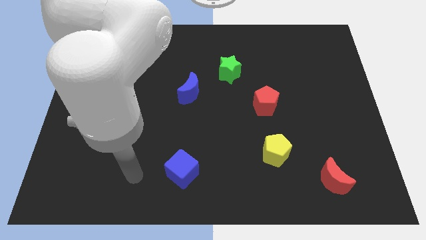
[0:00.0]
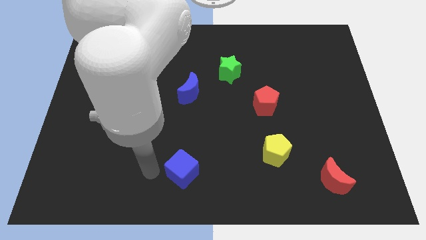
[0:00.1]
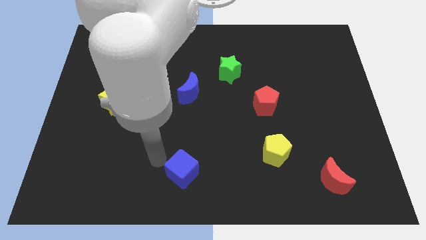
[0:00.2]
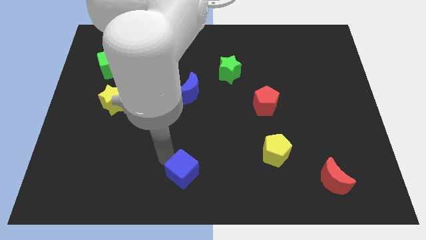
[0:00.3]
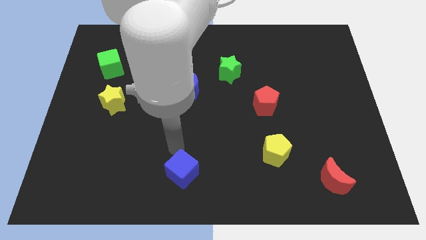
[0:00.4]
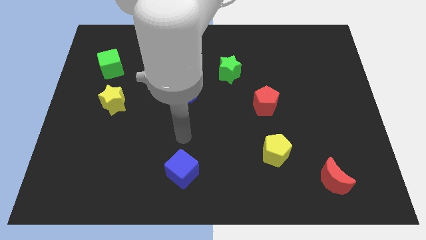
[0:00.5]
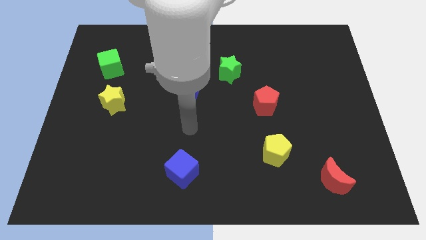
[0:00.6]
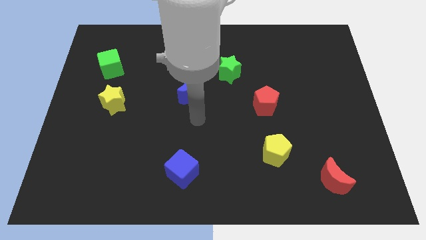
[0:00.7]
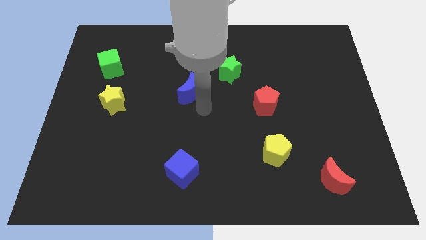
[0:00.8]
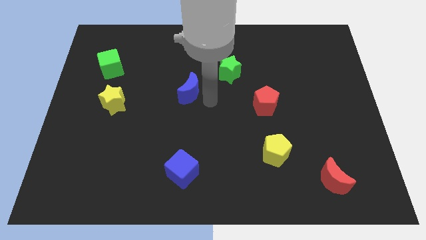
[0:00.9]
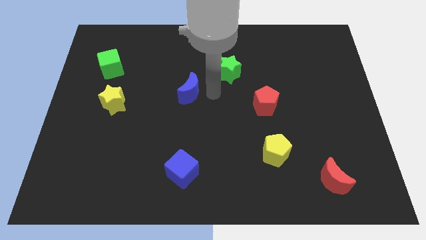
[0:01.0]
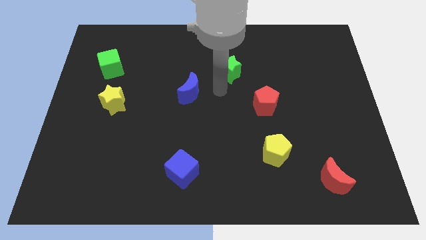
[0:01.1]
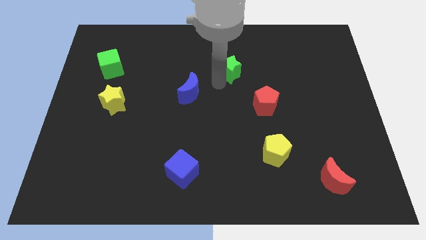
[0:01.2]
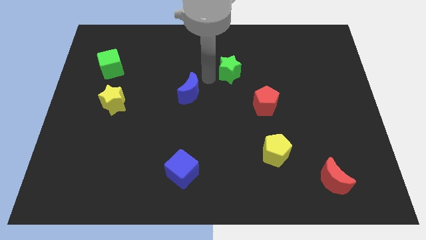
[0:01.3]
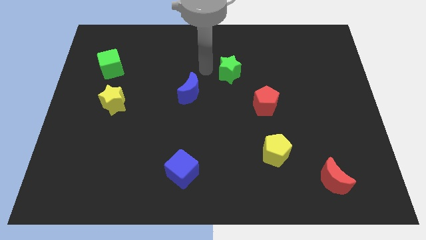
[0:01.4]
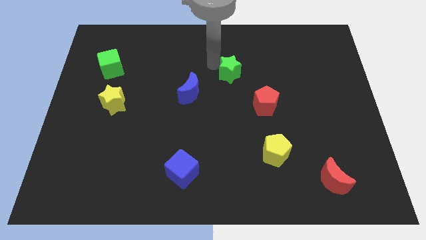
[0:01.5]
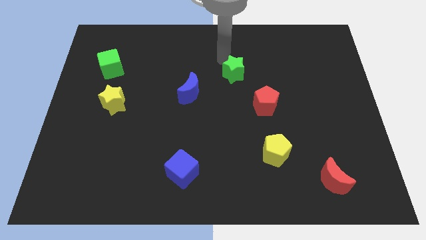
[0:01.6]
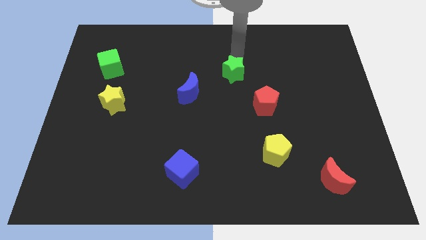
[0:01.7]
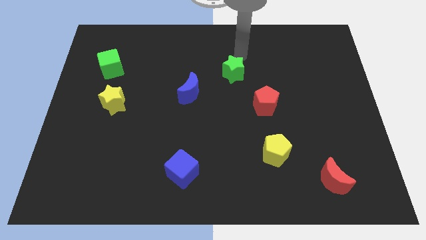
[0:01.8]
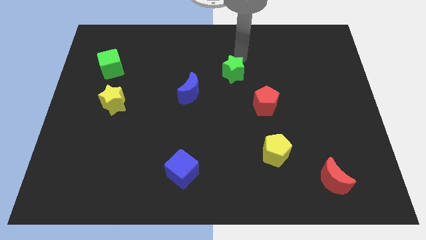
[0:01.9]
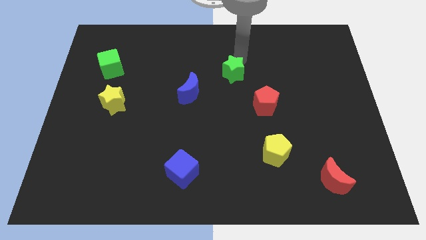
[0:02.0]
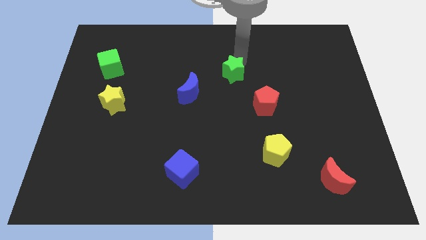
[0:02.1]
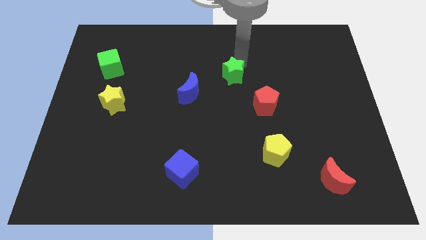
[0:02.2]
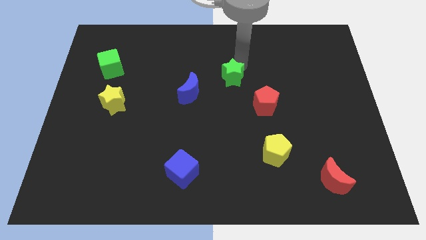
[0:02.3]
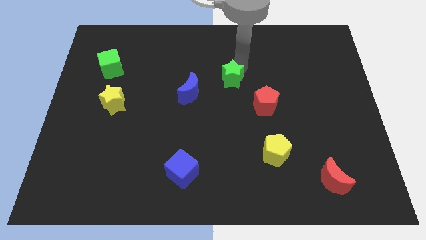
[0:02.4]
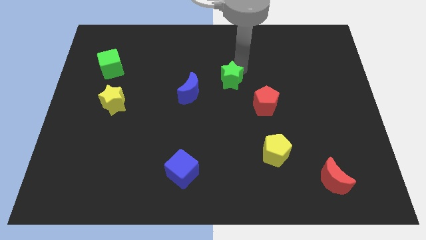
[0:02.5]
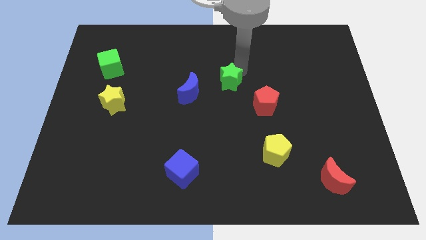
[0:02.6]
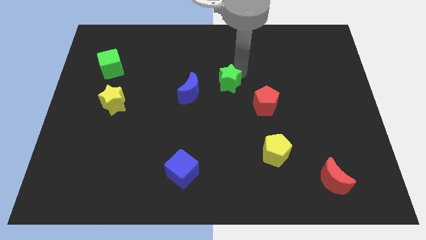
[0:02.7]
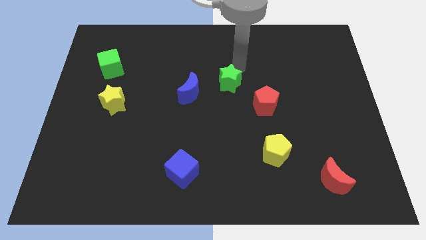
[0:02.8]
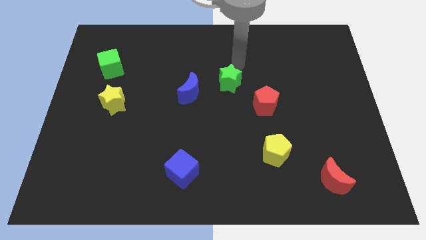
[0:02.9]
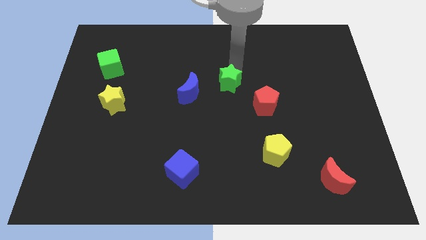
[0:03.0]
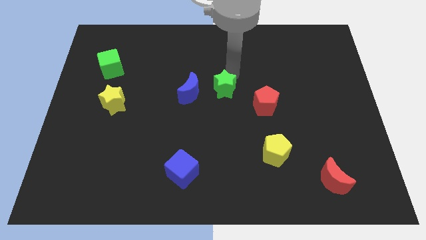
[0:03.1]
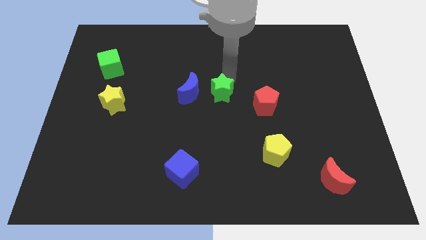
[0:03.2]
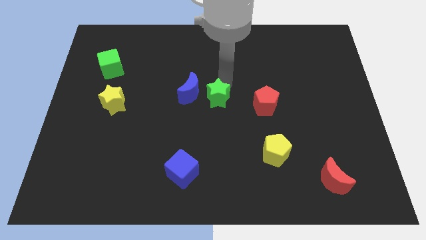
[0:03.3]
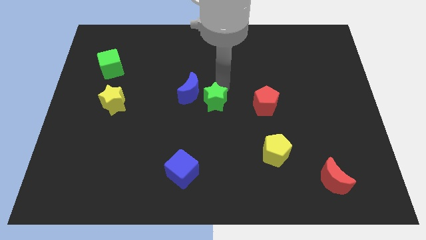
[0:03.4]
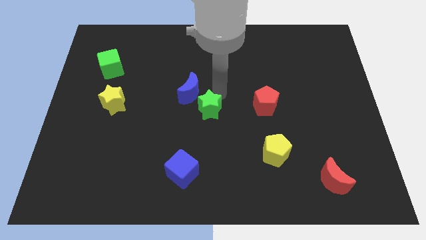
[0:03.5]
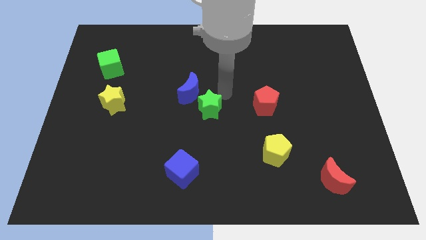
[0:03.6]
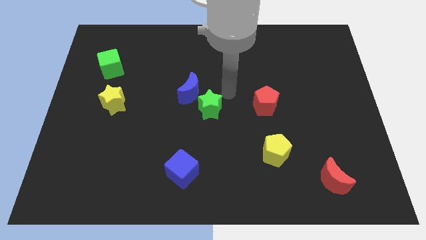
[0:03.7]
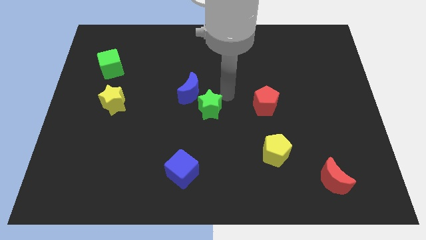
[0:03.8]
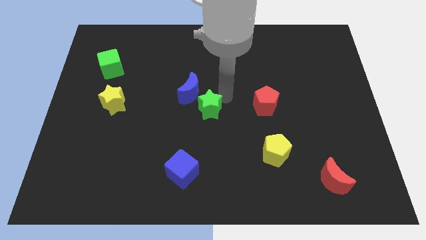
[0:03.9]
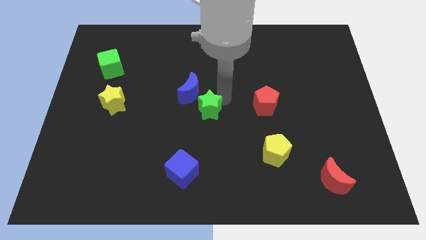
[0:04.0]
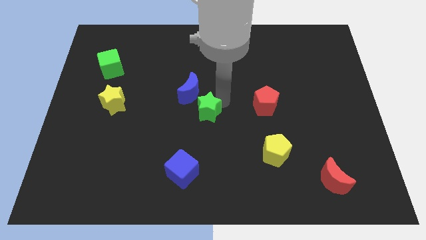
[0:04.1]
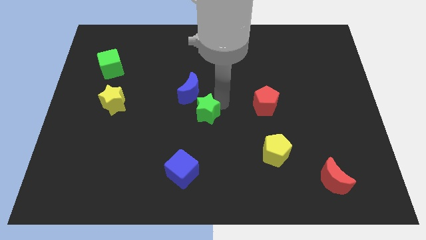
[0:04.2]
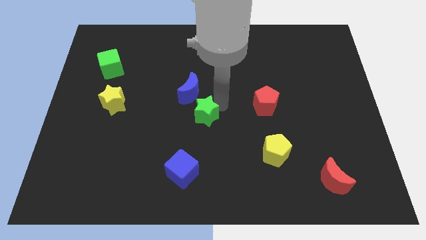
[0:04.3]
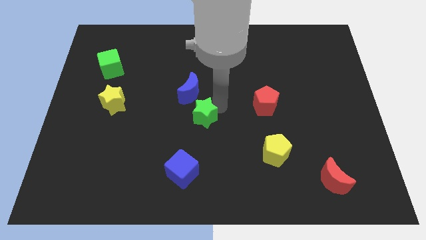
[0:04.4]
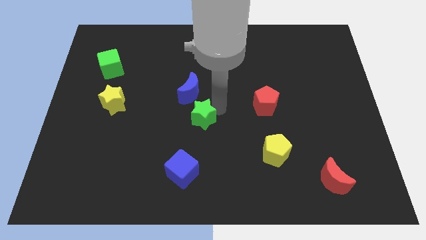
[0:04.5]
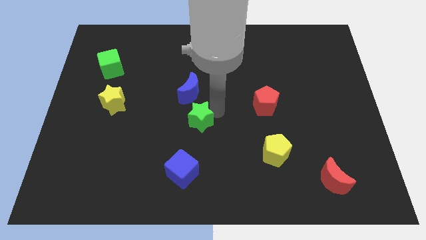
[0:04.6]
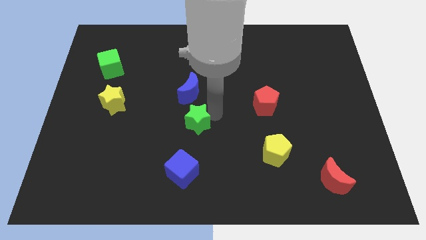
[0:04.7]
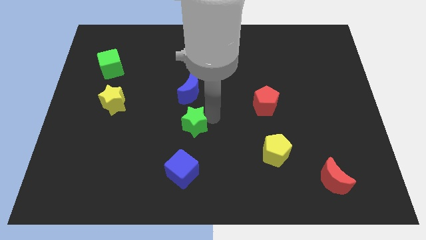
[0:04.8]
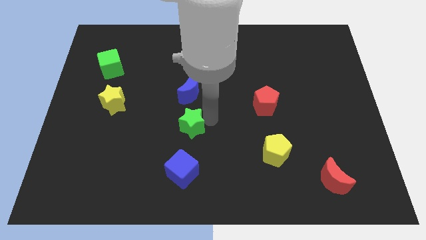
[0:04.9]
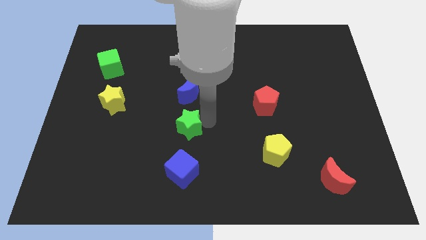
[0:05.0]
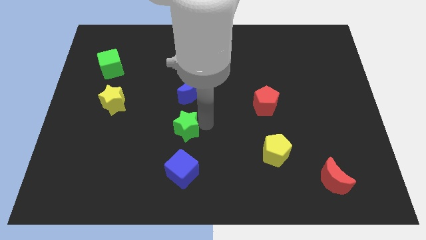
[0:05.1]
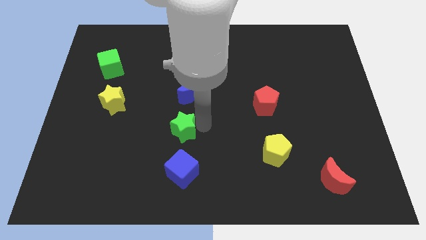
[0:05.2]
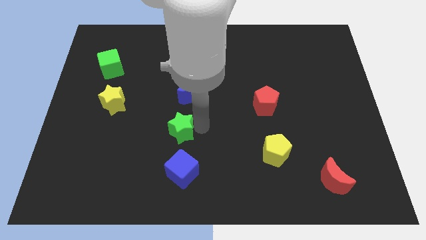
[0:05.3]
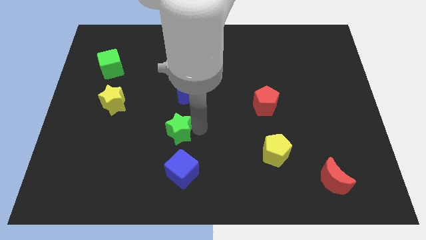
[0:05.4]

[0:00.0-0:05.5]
push the green star downwards and then to the left

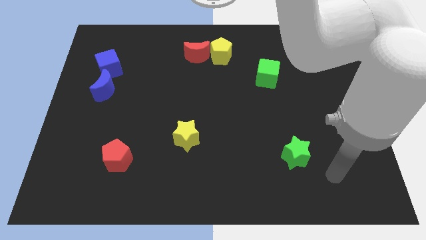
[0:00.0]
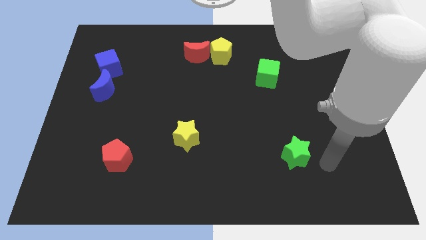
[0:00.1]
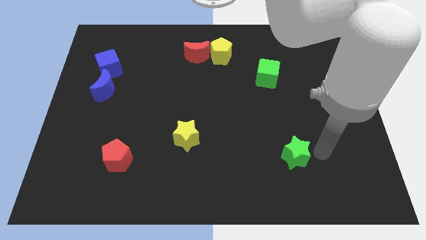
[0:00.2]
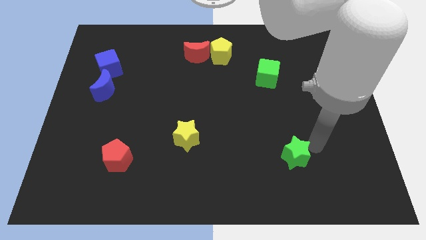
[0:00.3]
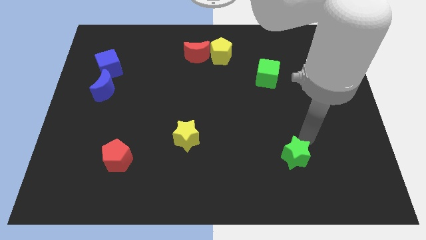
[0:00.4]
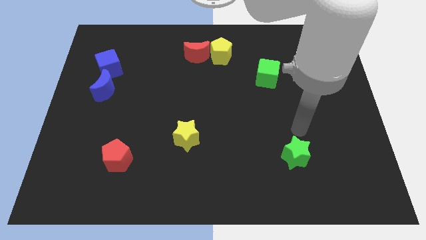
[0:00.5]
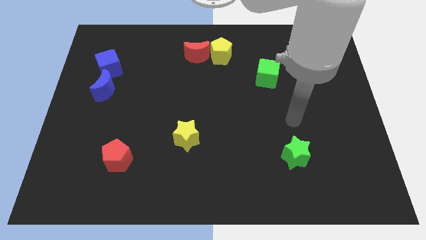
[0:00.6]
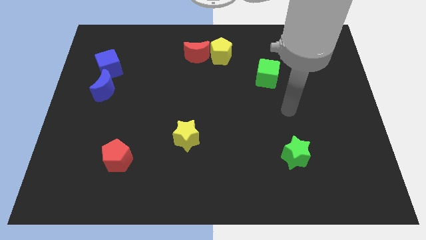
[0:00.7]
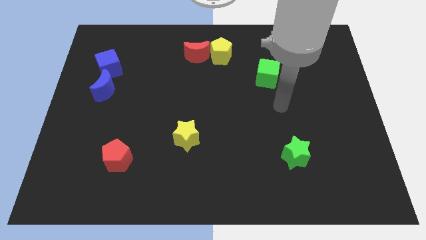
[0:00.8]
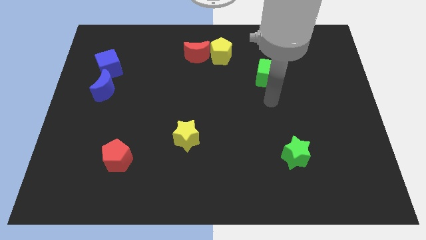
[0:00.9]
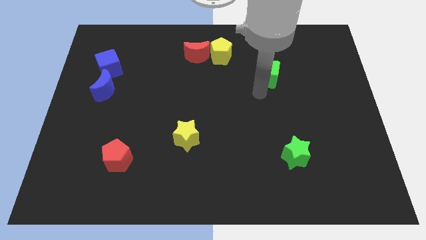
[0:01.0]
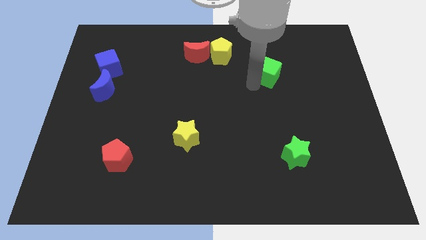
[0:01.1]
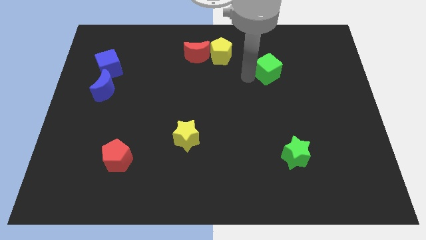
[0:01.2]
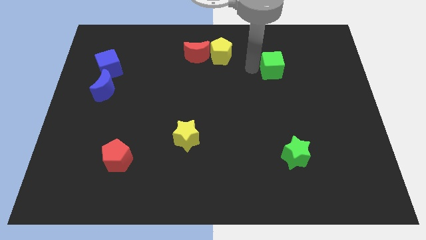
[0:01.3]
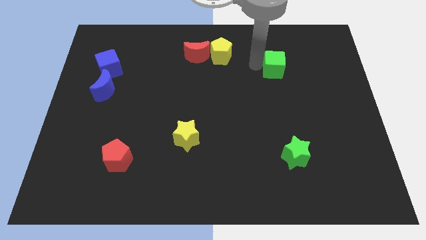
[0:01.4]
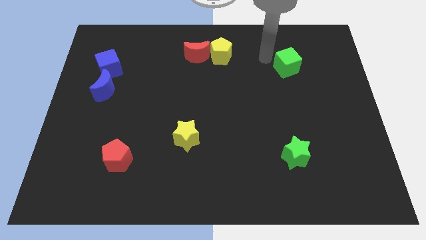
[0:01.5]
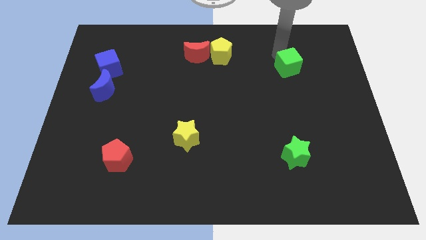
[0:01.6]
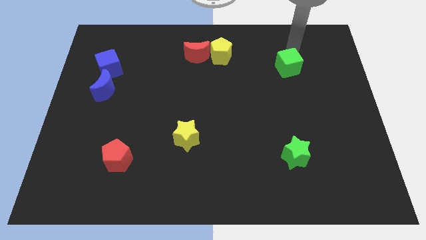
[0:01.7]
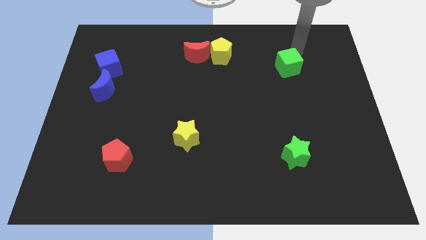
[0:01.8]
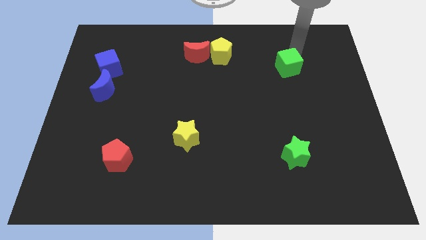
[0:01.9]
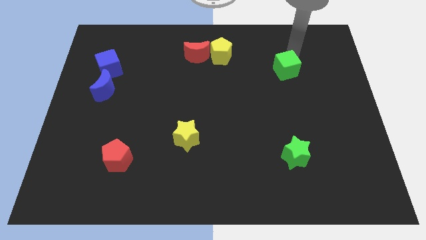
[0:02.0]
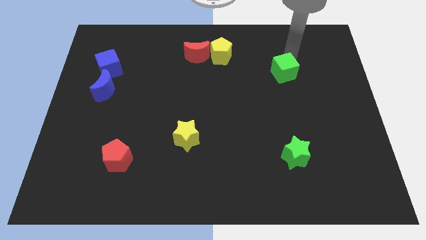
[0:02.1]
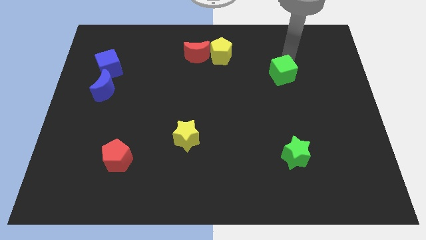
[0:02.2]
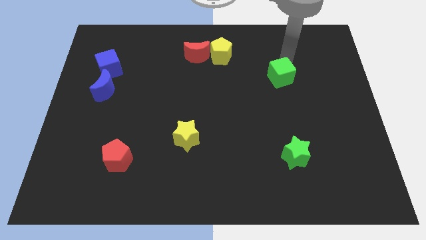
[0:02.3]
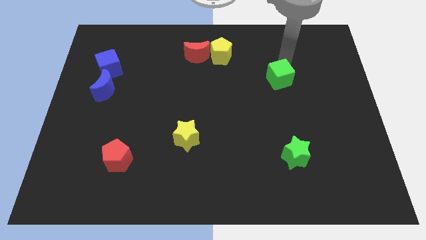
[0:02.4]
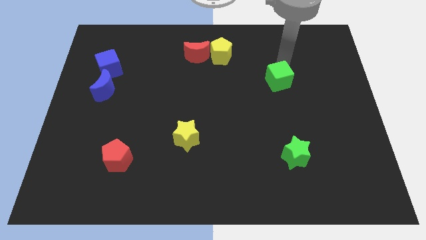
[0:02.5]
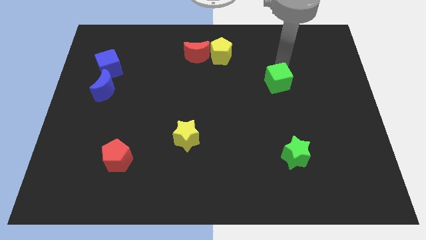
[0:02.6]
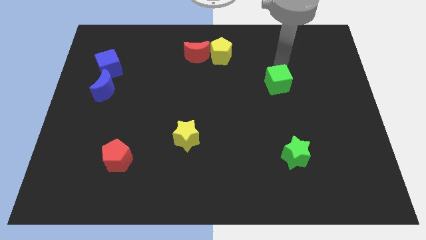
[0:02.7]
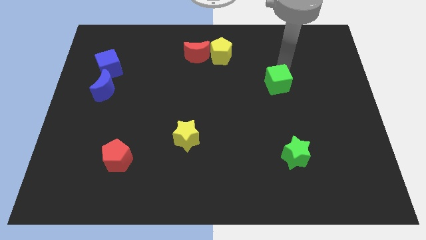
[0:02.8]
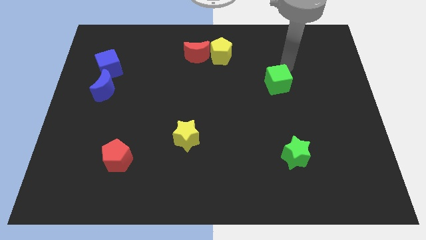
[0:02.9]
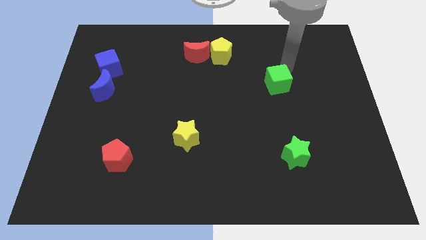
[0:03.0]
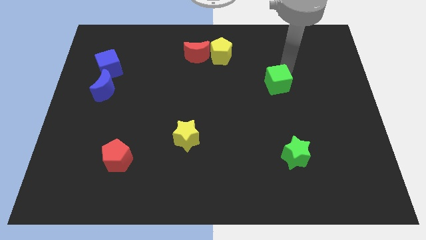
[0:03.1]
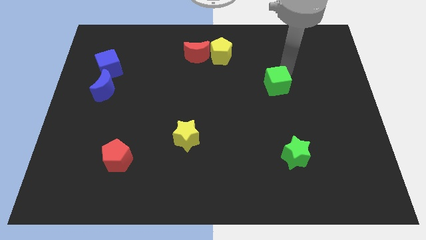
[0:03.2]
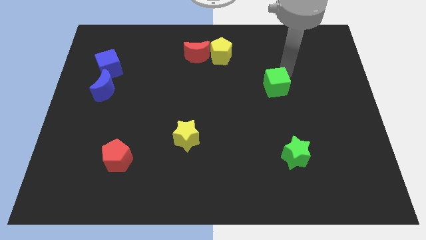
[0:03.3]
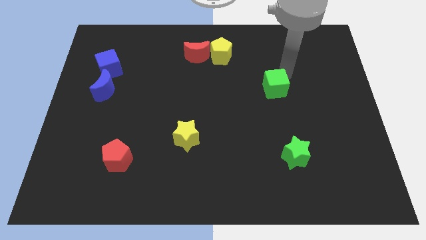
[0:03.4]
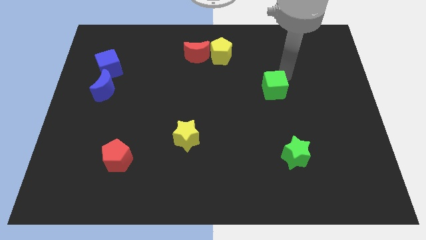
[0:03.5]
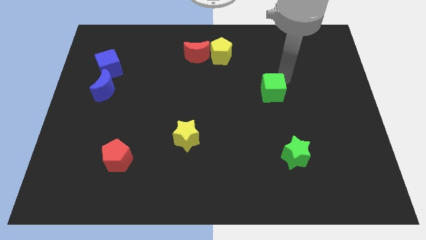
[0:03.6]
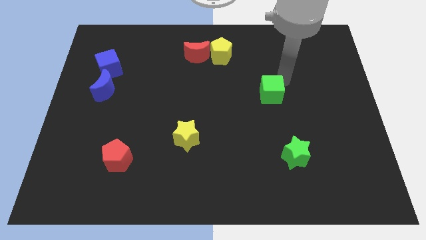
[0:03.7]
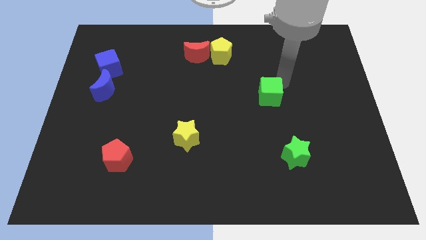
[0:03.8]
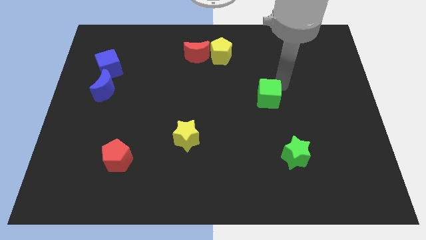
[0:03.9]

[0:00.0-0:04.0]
move the green cube somewhat down
